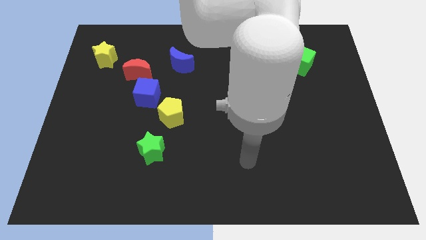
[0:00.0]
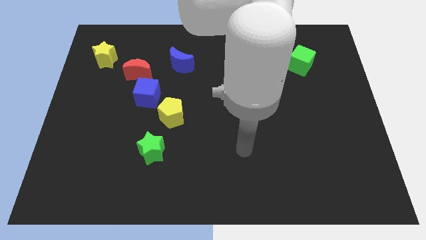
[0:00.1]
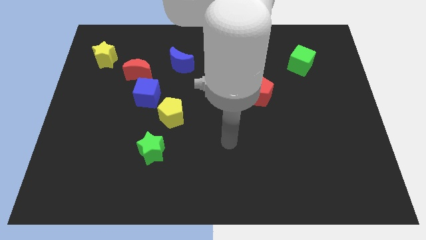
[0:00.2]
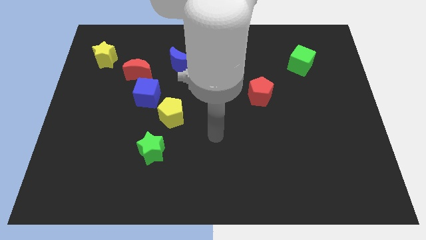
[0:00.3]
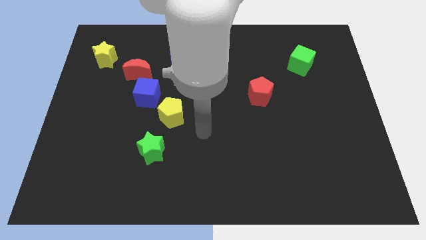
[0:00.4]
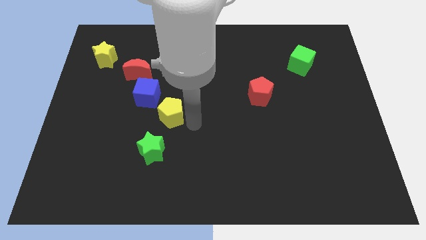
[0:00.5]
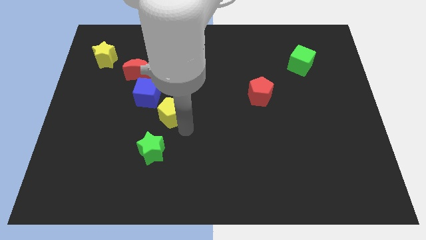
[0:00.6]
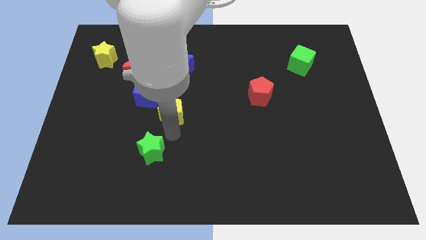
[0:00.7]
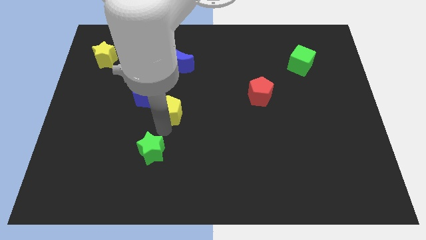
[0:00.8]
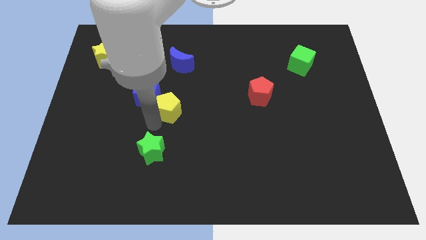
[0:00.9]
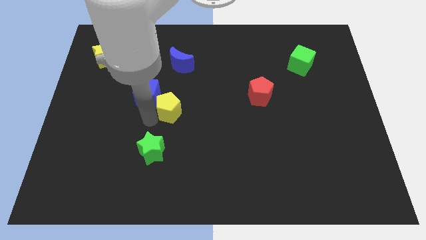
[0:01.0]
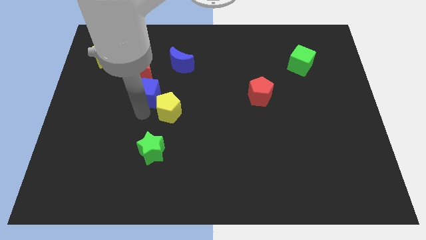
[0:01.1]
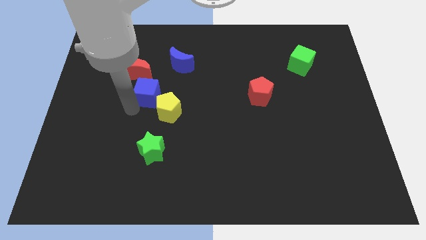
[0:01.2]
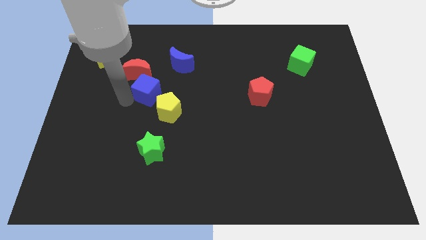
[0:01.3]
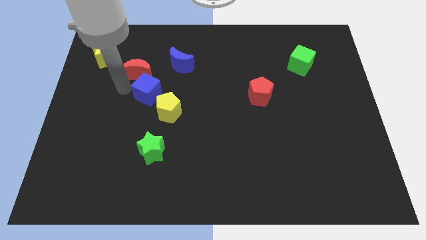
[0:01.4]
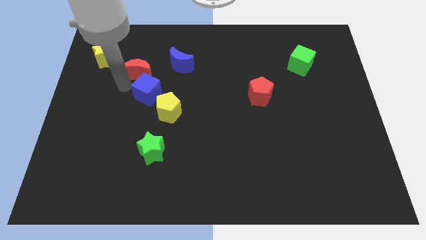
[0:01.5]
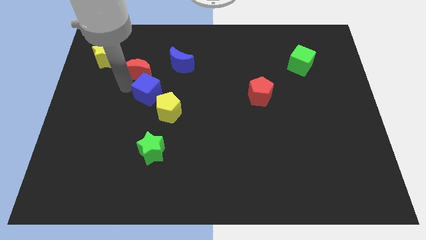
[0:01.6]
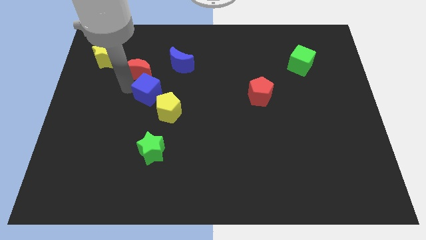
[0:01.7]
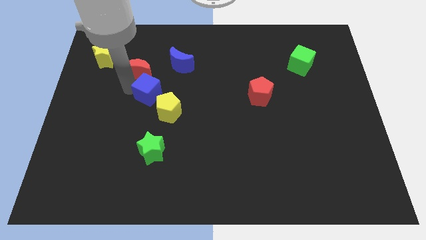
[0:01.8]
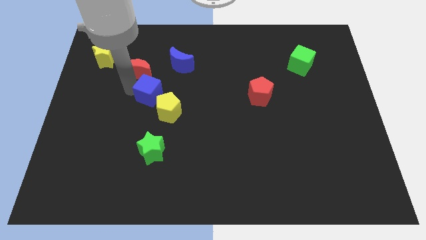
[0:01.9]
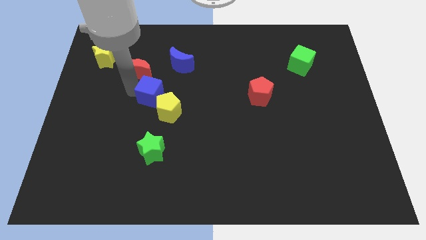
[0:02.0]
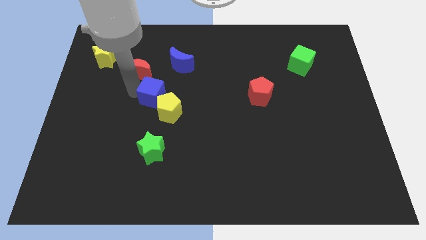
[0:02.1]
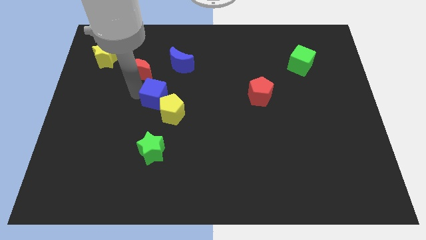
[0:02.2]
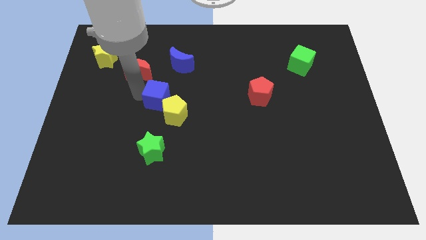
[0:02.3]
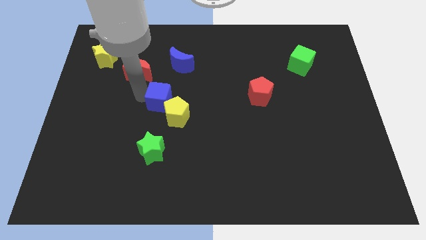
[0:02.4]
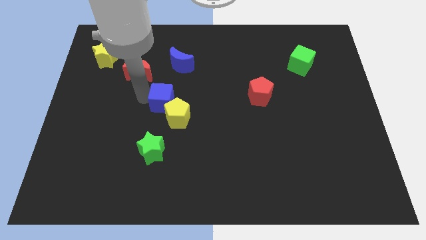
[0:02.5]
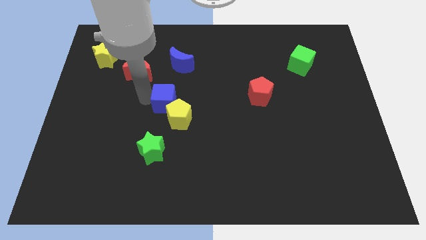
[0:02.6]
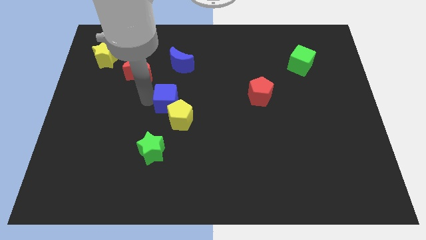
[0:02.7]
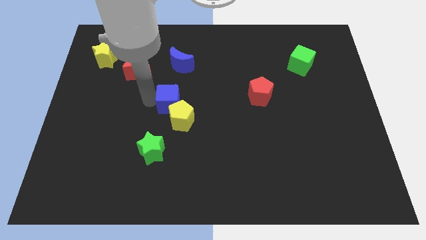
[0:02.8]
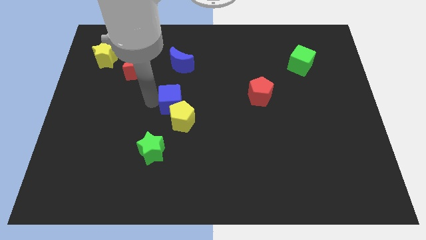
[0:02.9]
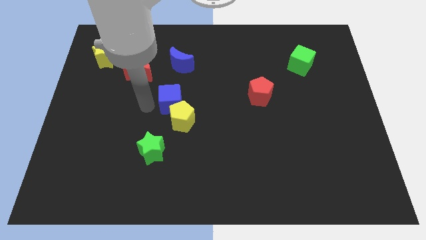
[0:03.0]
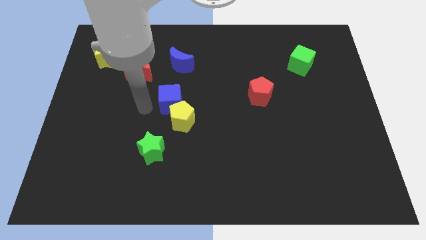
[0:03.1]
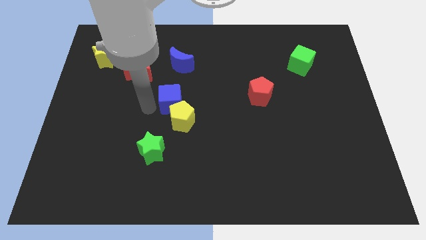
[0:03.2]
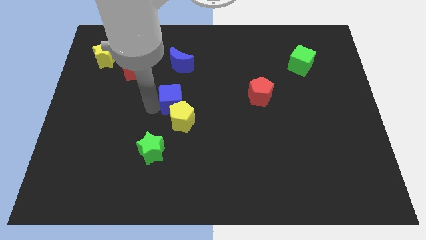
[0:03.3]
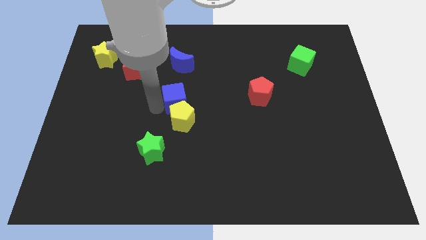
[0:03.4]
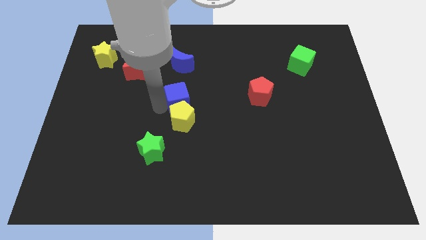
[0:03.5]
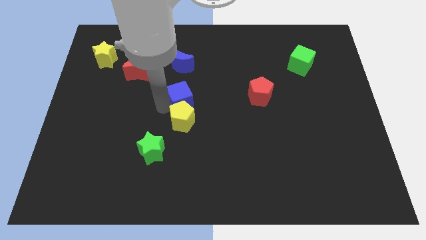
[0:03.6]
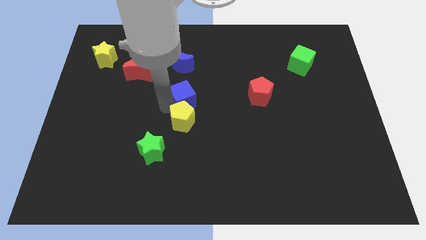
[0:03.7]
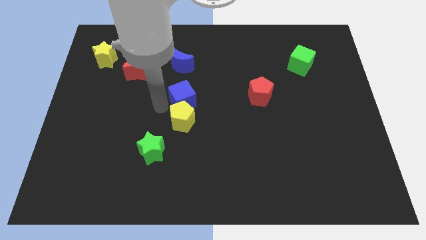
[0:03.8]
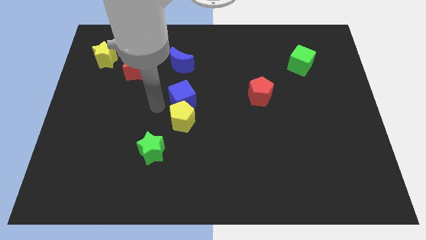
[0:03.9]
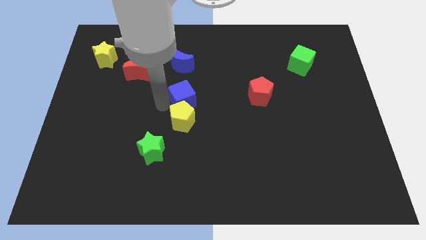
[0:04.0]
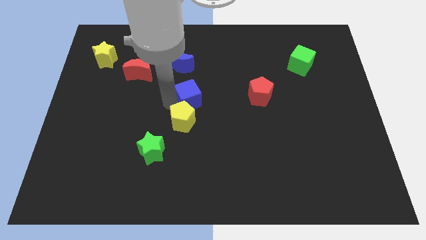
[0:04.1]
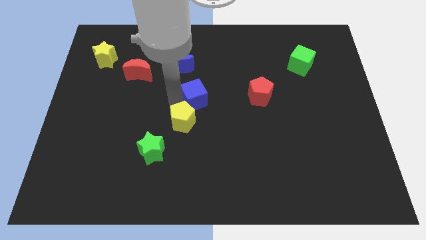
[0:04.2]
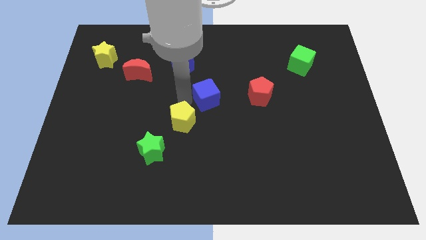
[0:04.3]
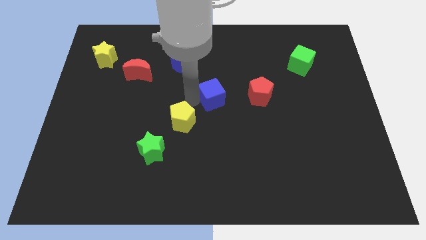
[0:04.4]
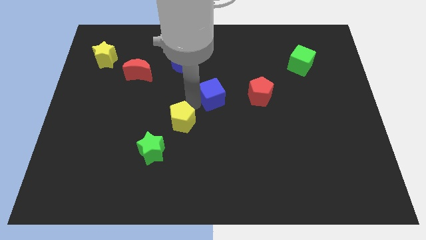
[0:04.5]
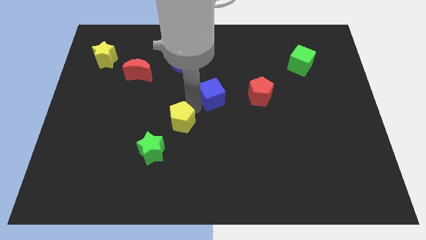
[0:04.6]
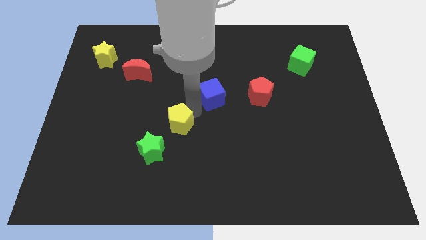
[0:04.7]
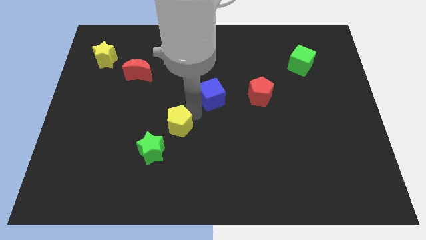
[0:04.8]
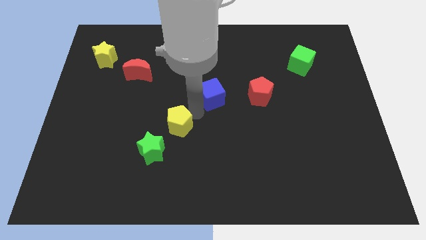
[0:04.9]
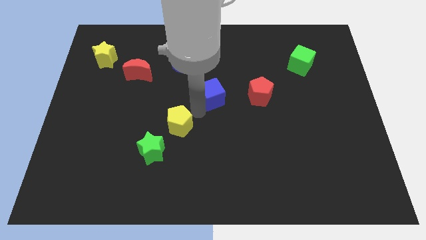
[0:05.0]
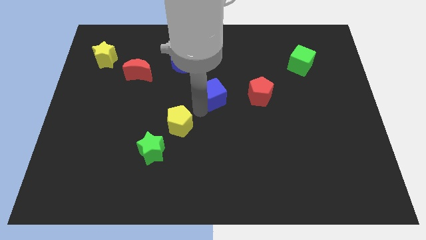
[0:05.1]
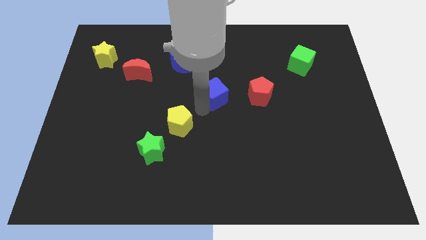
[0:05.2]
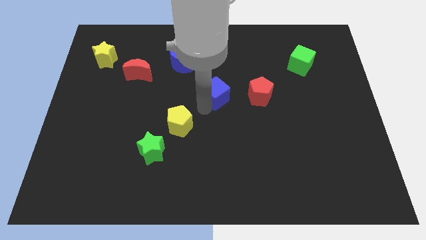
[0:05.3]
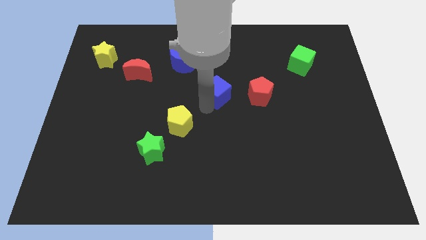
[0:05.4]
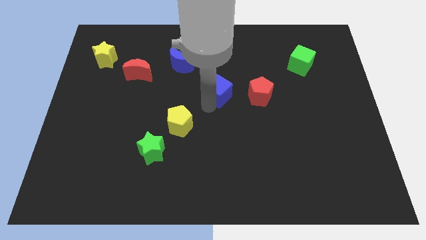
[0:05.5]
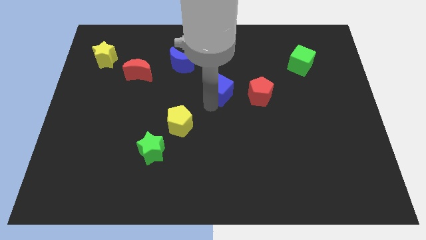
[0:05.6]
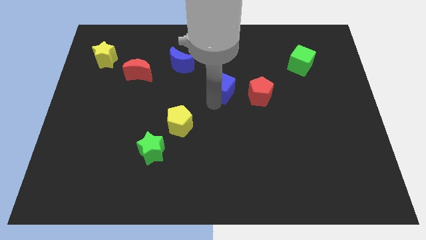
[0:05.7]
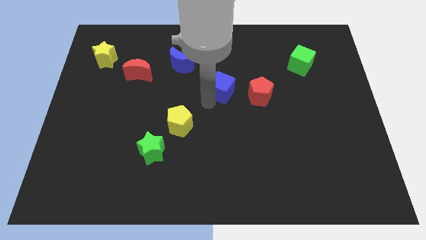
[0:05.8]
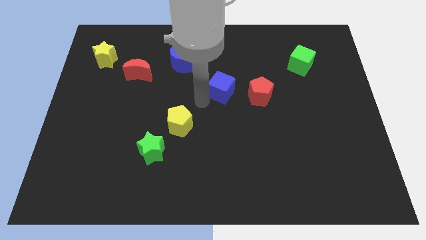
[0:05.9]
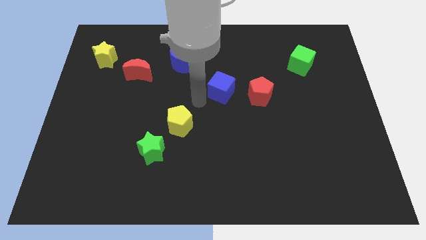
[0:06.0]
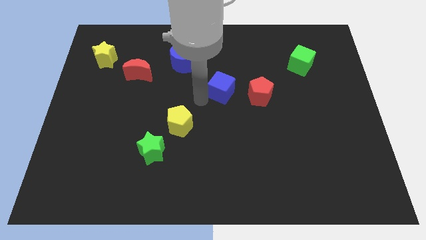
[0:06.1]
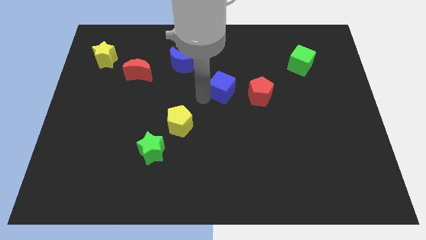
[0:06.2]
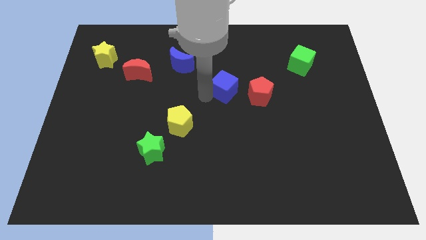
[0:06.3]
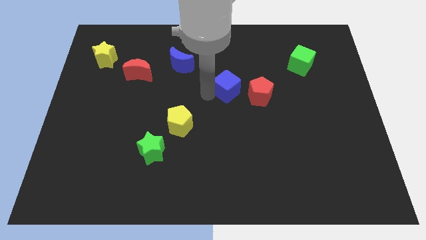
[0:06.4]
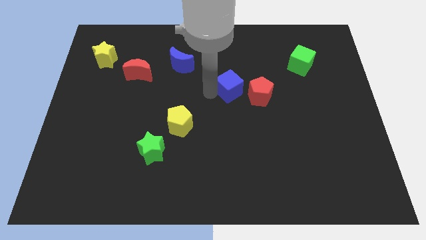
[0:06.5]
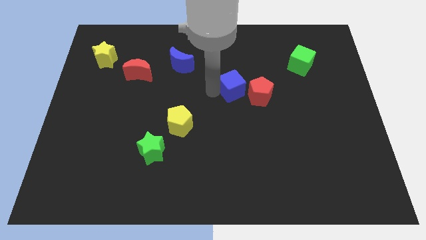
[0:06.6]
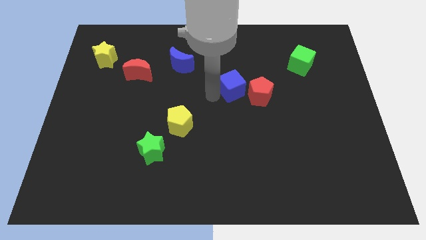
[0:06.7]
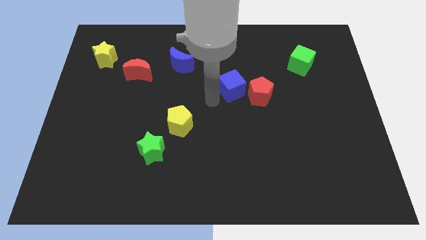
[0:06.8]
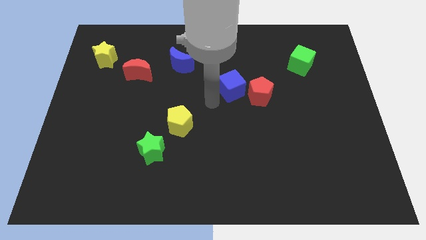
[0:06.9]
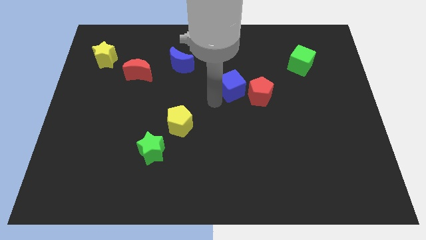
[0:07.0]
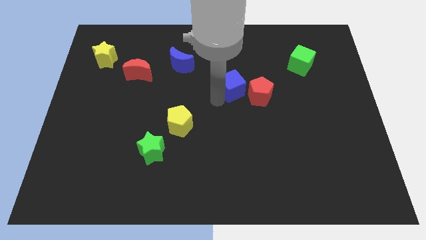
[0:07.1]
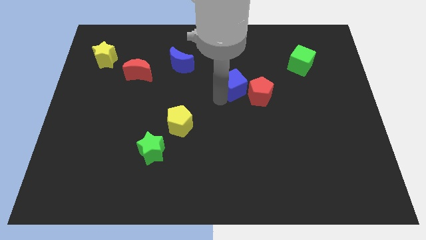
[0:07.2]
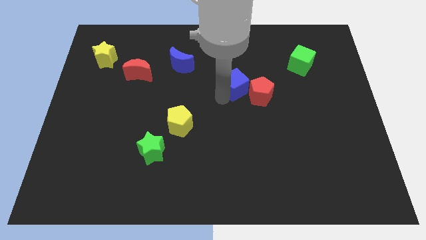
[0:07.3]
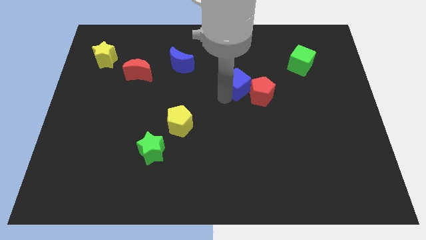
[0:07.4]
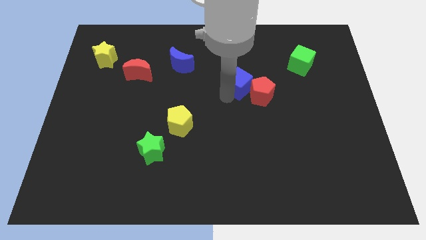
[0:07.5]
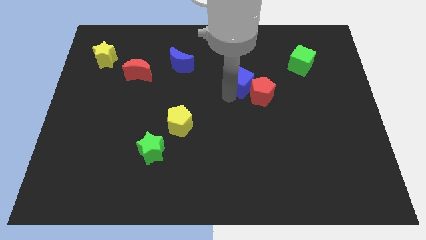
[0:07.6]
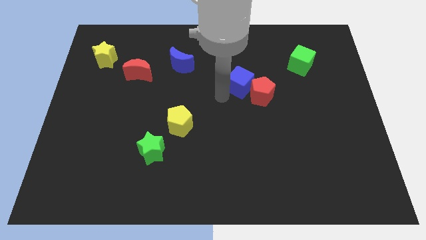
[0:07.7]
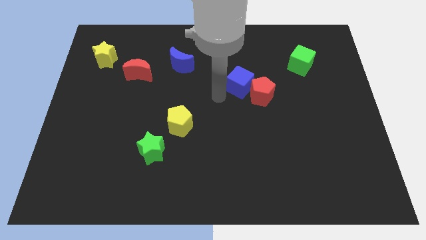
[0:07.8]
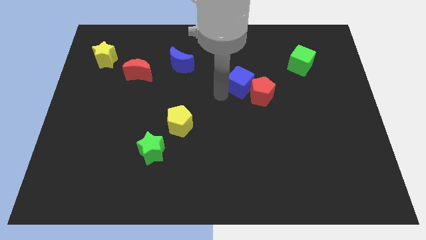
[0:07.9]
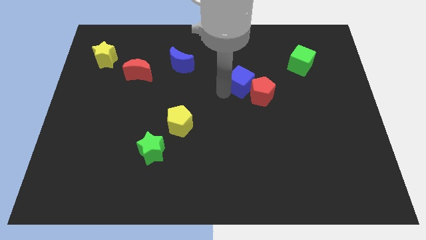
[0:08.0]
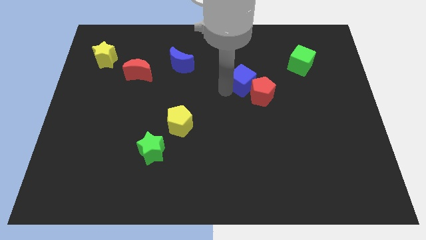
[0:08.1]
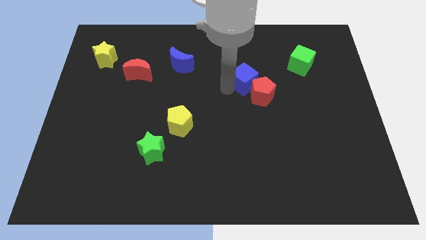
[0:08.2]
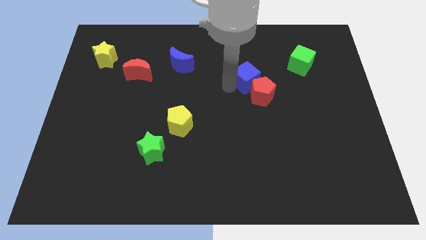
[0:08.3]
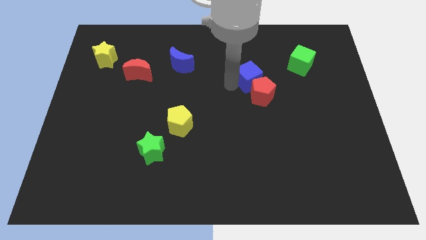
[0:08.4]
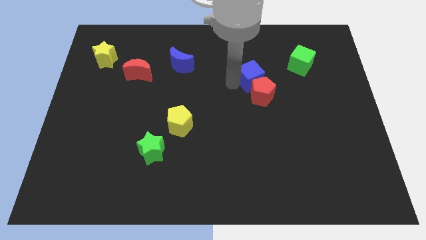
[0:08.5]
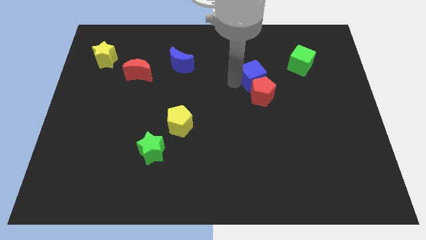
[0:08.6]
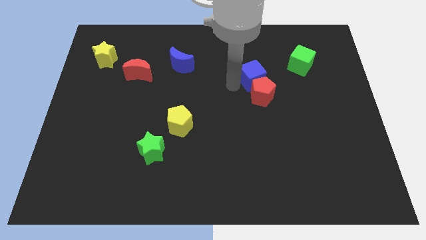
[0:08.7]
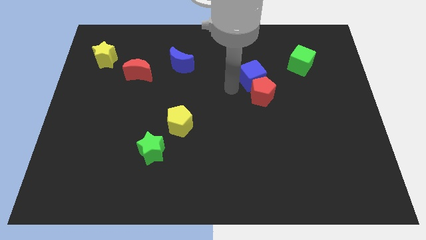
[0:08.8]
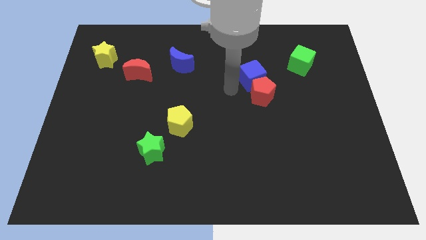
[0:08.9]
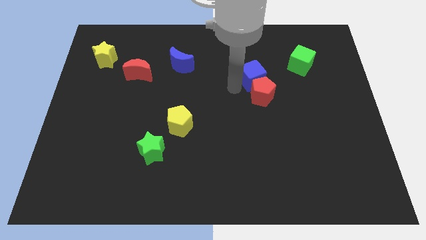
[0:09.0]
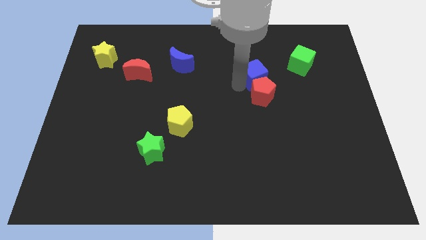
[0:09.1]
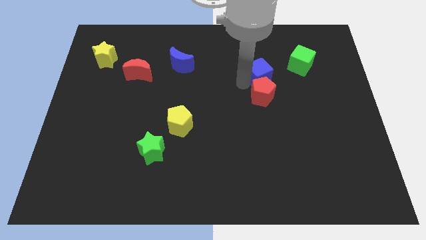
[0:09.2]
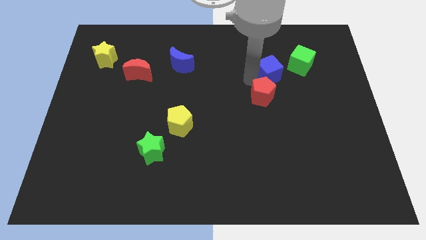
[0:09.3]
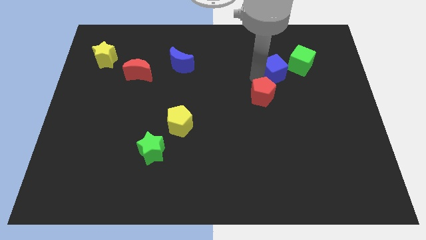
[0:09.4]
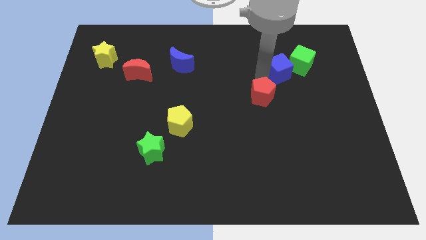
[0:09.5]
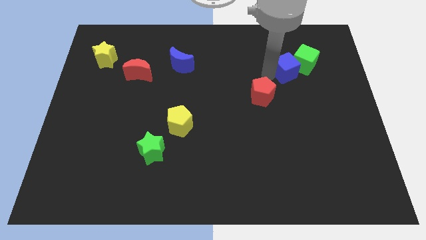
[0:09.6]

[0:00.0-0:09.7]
move the blue cube to the green cube
